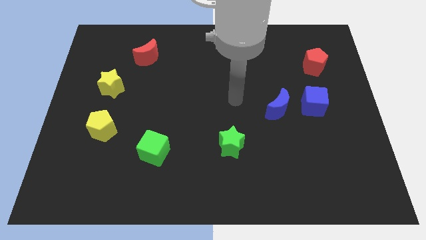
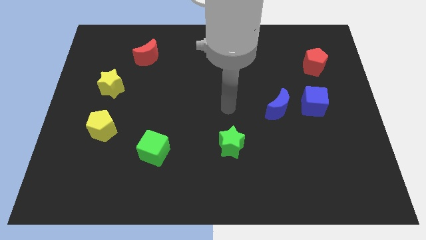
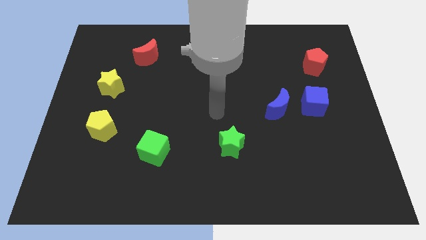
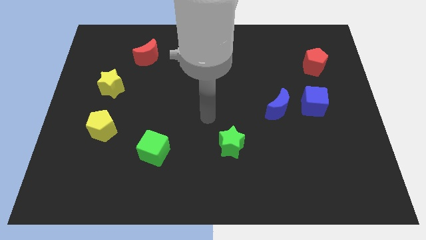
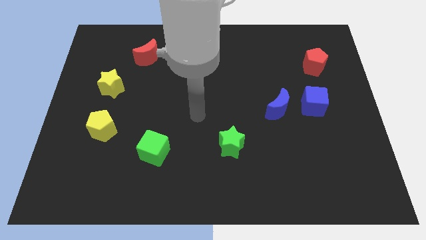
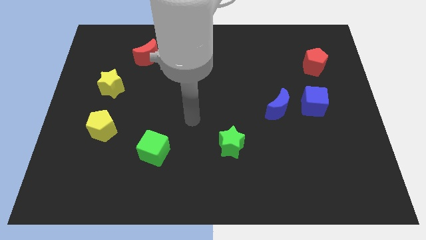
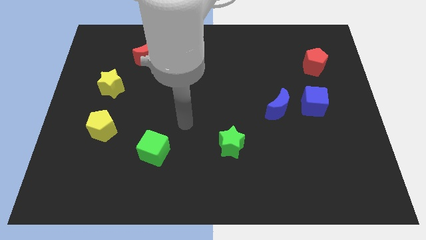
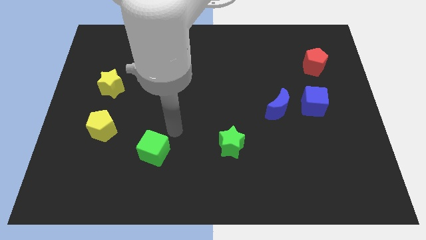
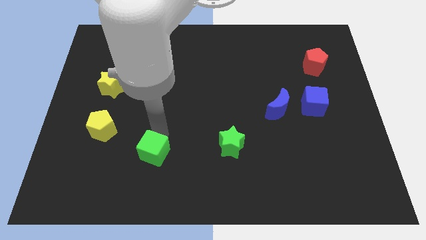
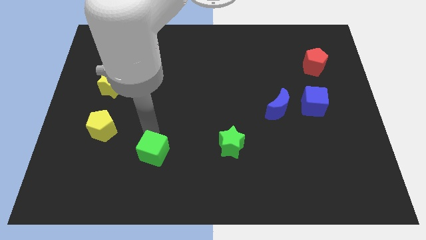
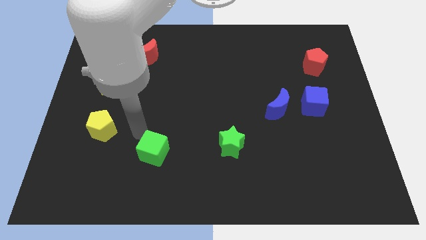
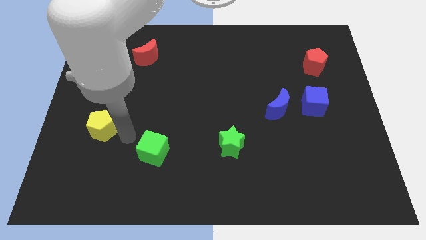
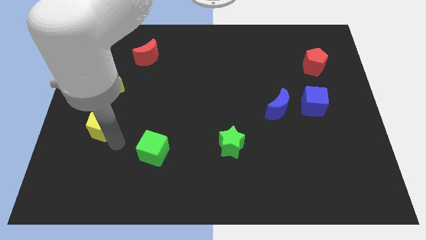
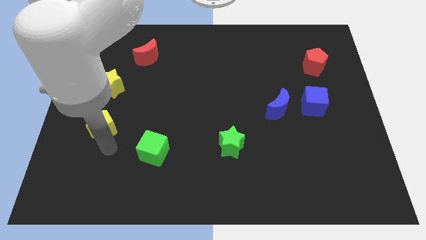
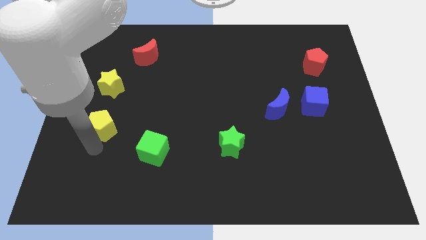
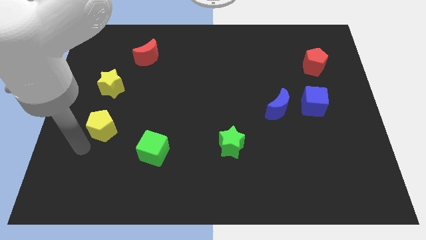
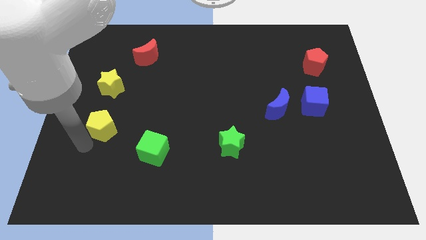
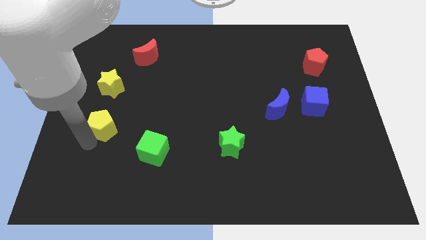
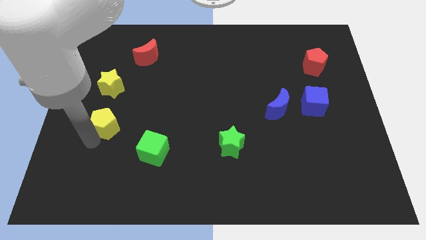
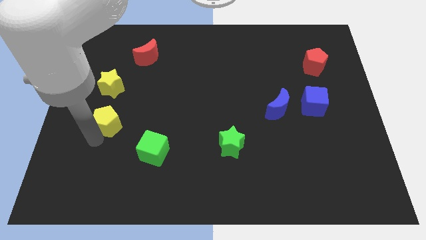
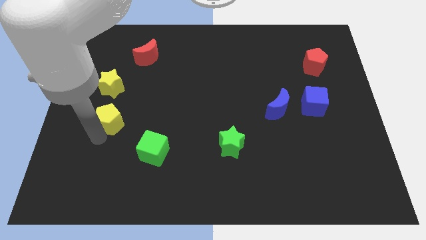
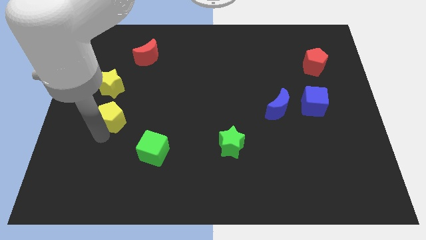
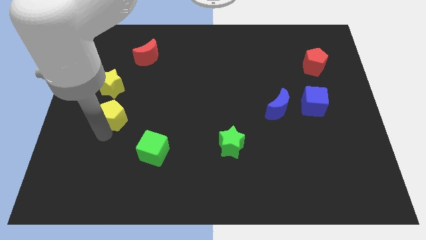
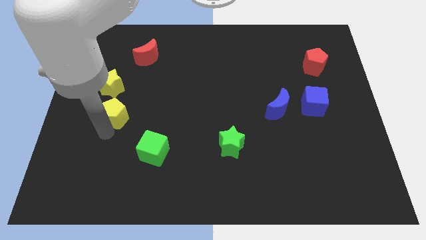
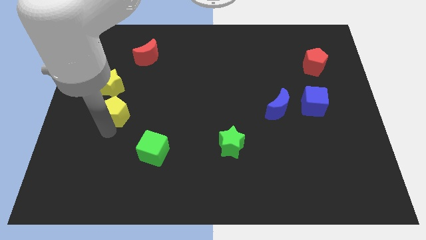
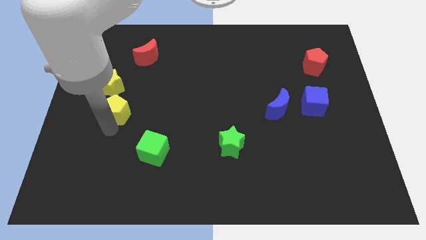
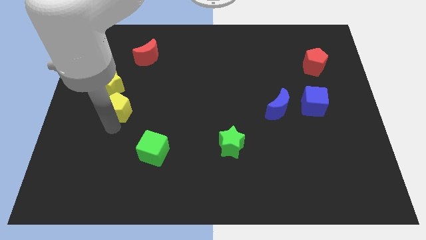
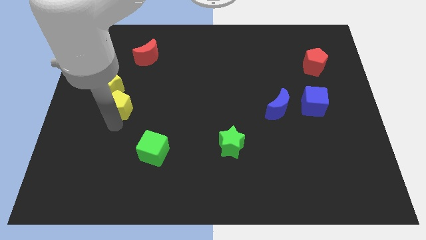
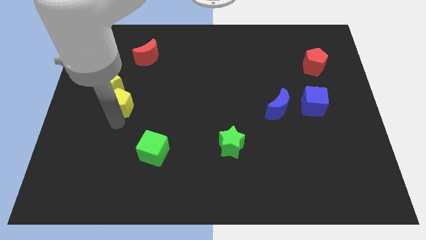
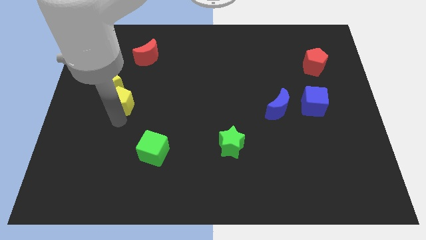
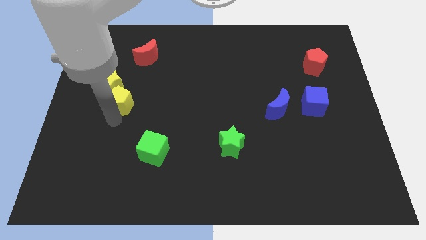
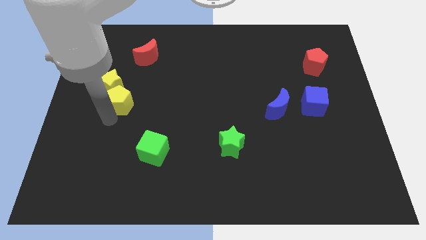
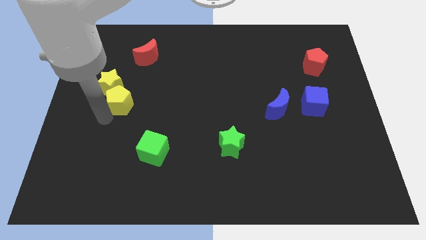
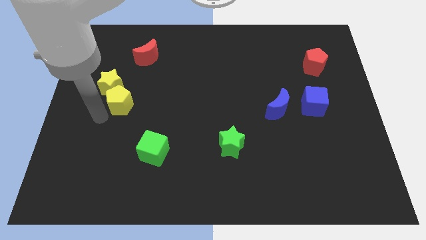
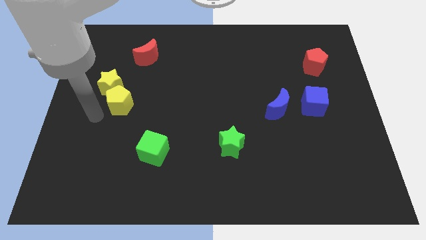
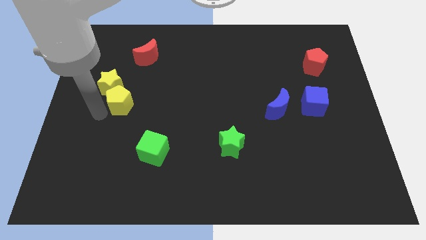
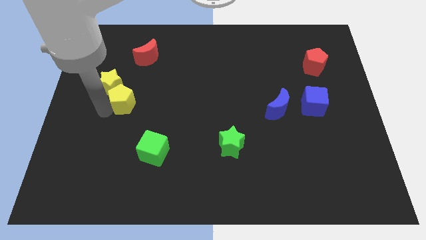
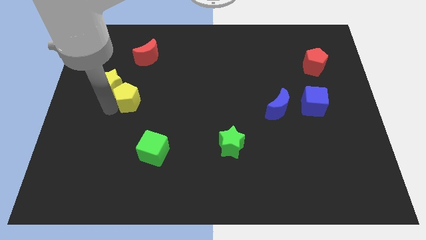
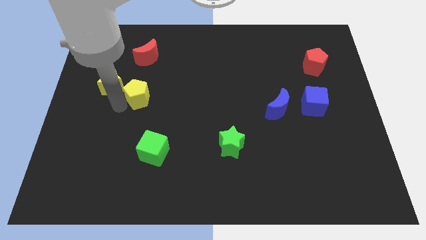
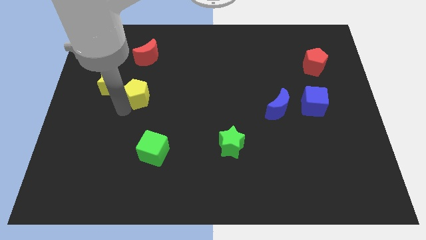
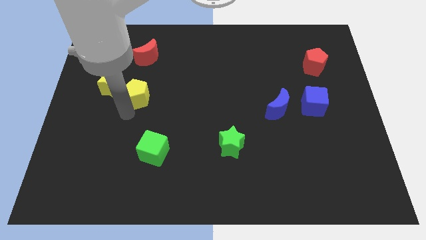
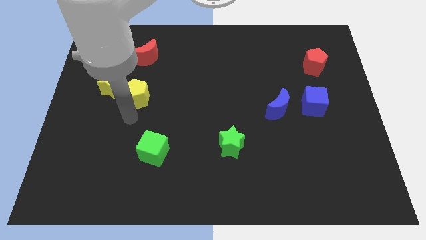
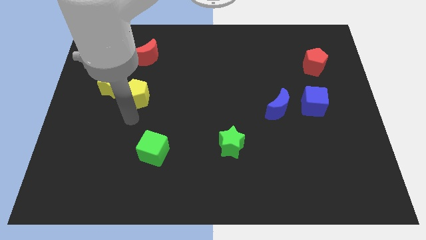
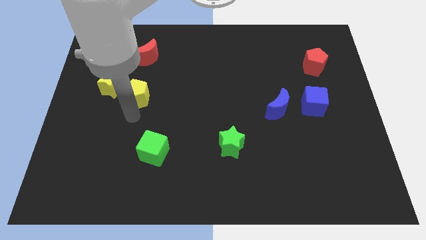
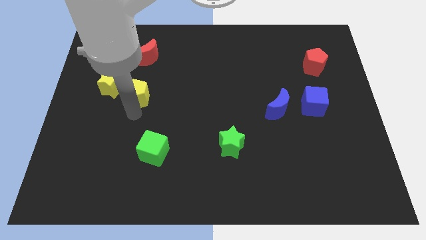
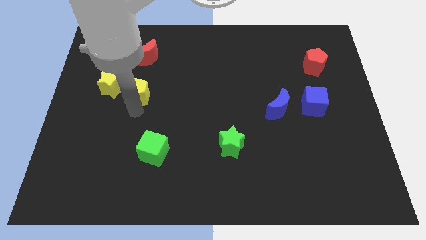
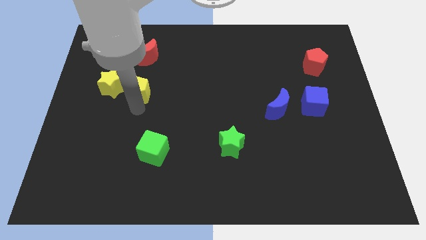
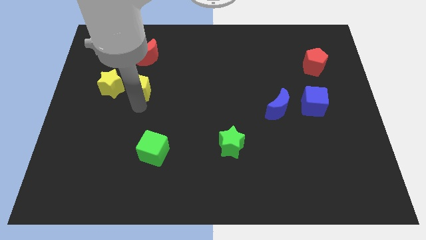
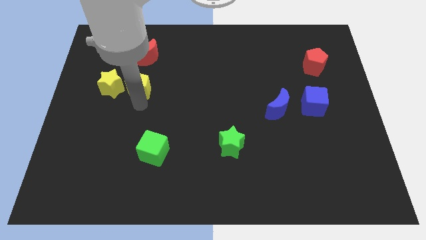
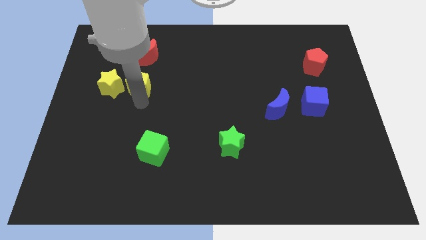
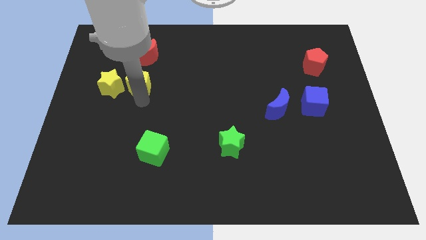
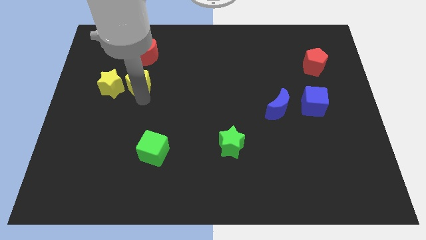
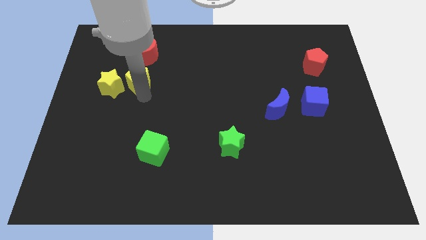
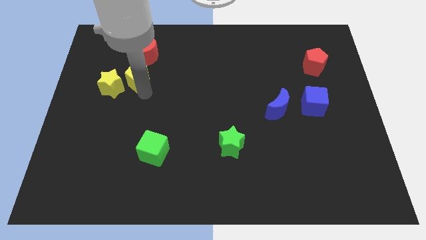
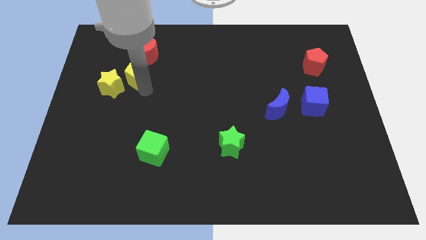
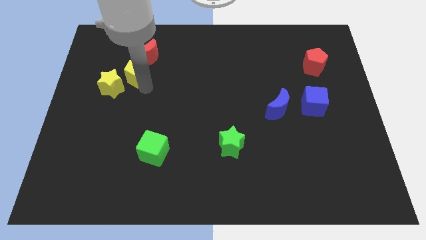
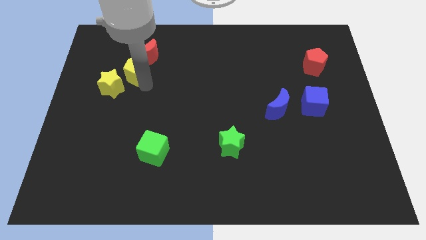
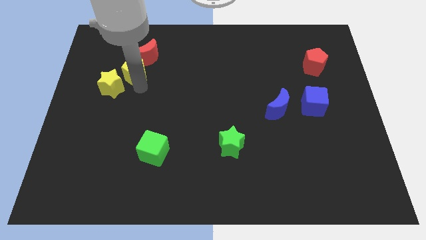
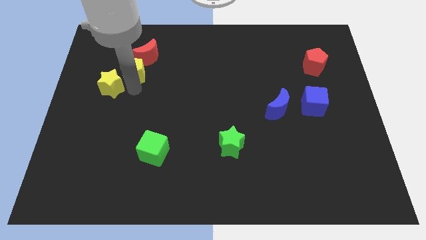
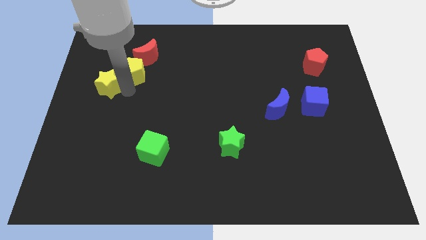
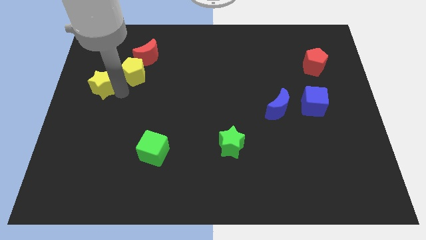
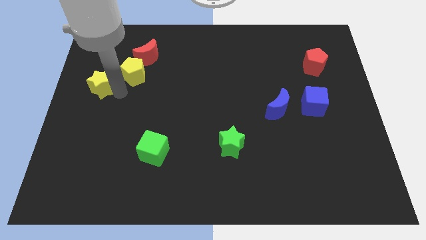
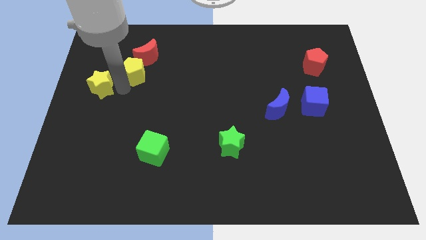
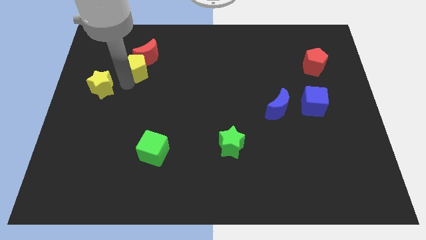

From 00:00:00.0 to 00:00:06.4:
move the yellow pentagon towards the red moon

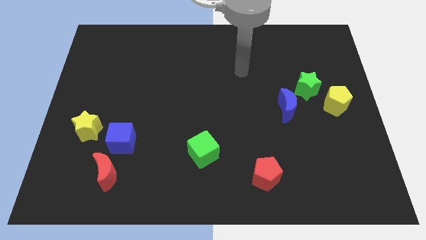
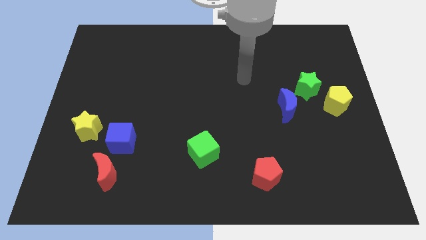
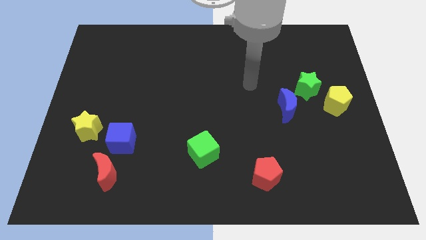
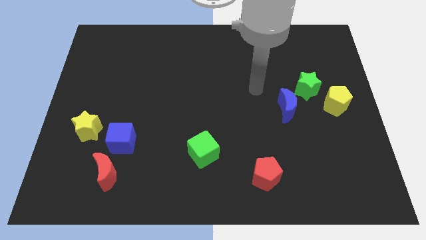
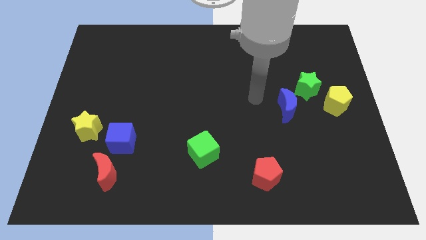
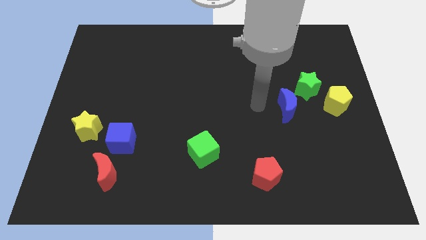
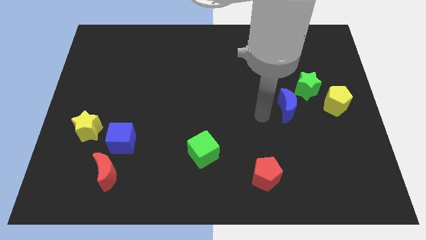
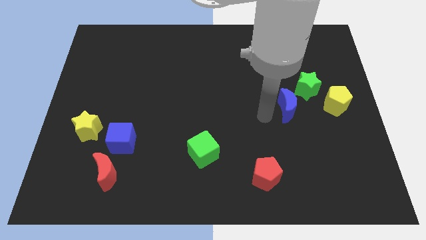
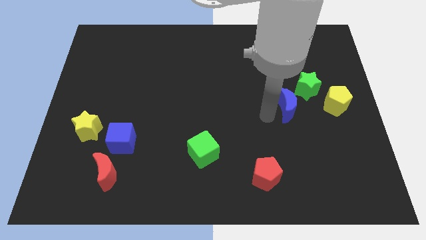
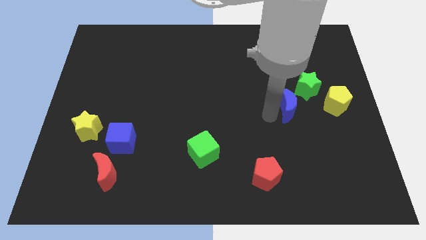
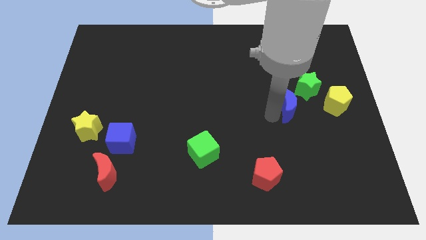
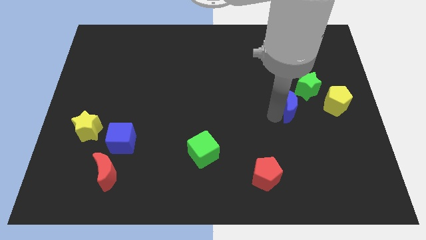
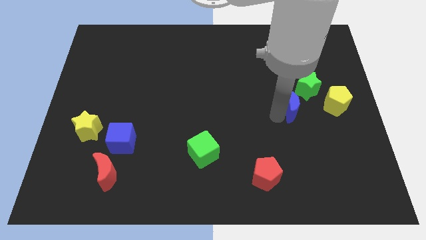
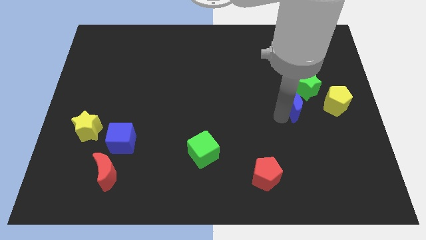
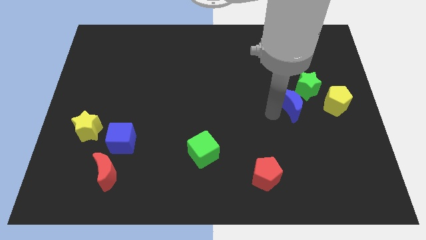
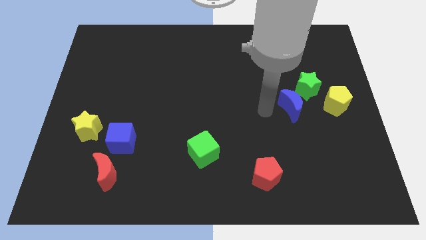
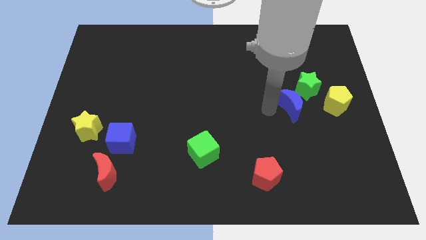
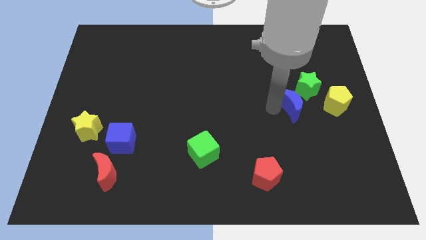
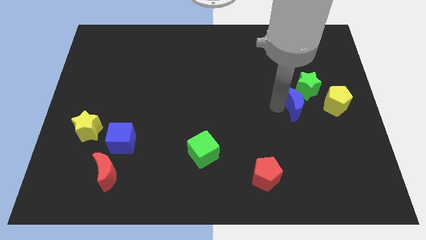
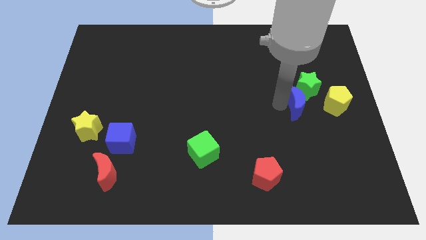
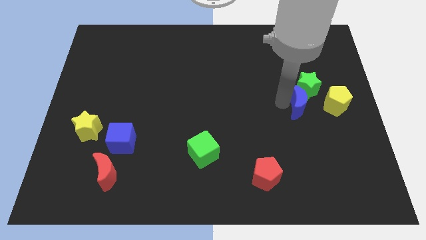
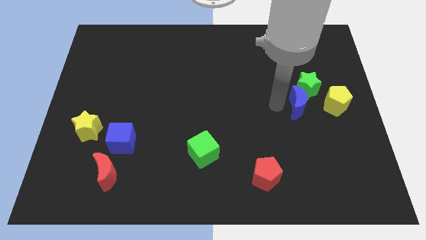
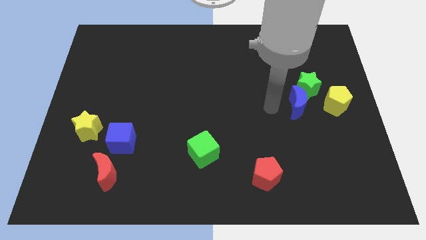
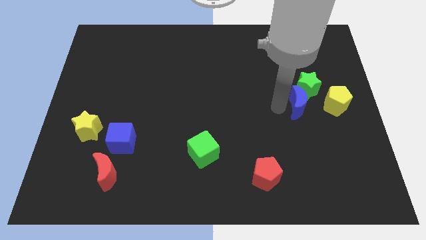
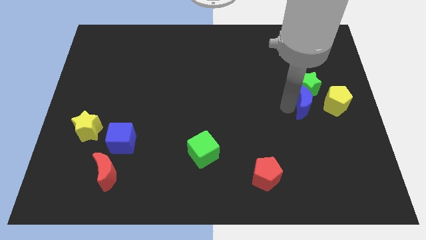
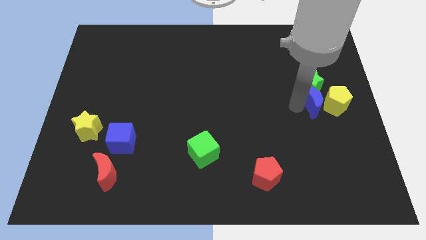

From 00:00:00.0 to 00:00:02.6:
push the blue moon to the yellow pentagon
